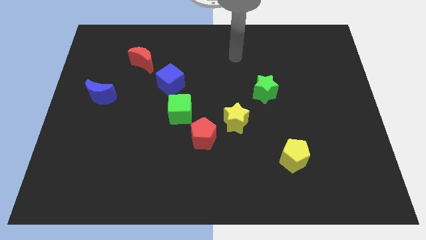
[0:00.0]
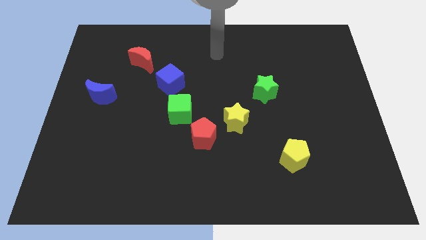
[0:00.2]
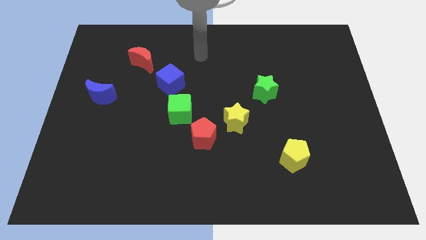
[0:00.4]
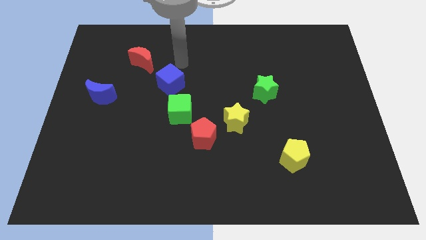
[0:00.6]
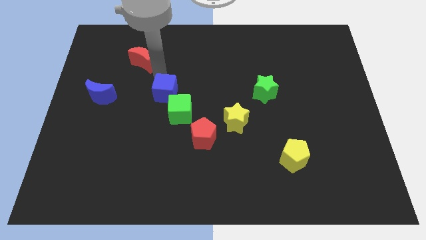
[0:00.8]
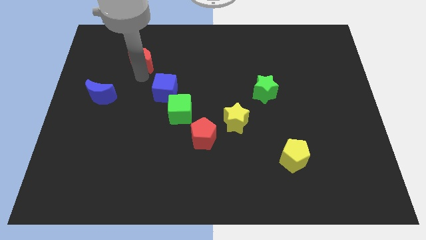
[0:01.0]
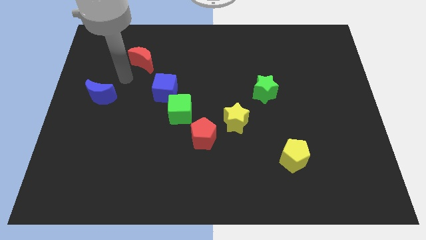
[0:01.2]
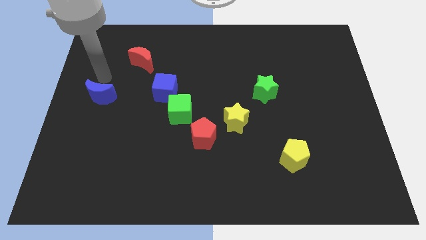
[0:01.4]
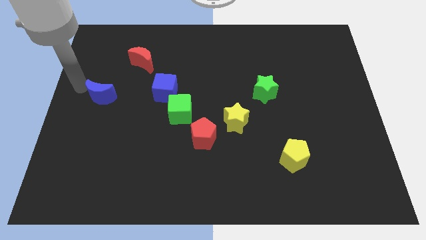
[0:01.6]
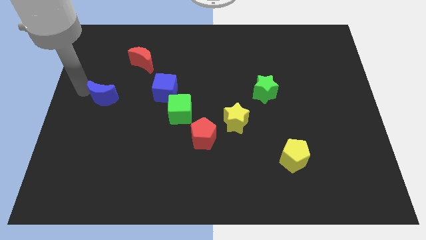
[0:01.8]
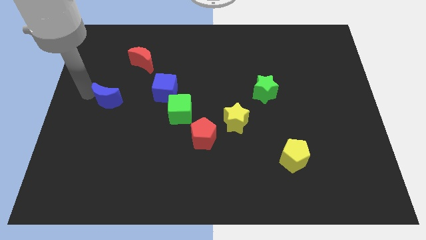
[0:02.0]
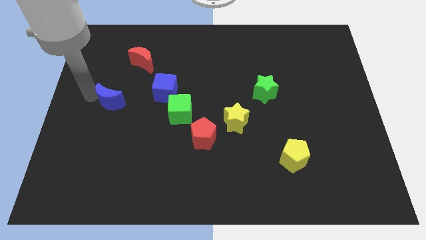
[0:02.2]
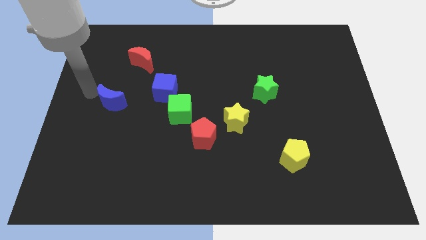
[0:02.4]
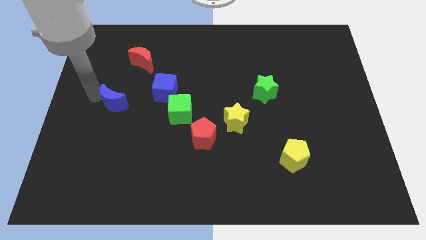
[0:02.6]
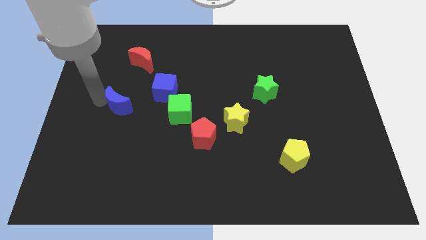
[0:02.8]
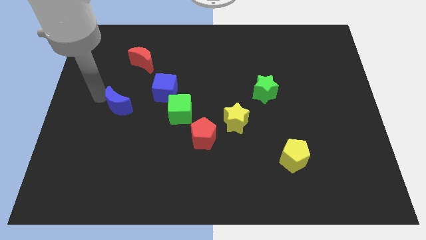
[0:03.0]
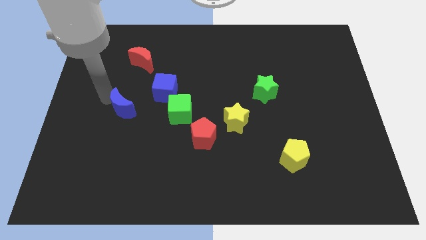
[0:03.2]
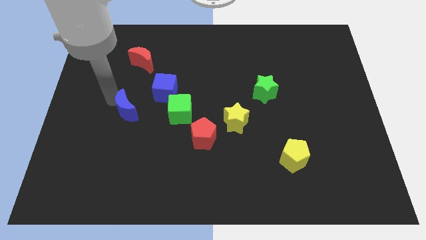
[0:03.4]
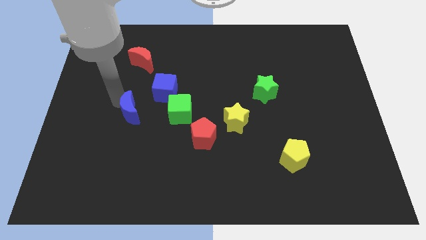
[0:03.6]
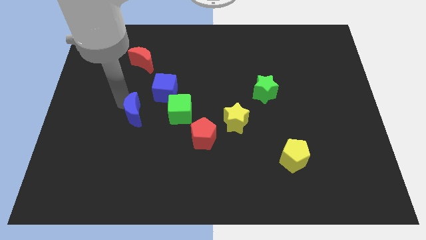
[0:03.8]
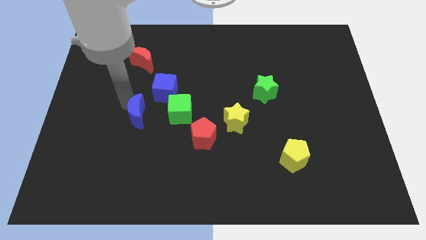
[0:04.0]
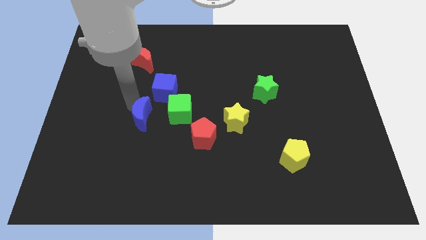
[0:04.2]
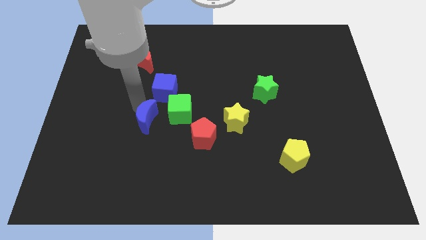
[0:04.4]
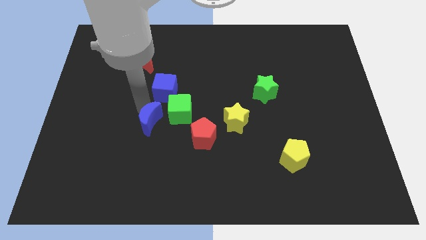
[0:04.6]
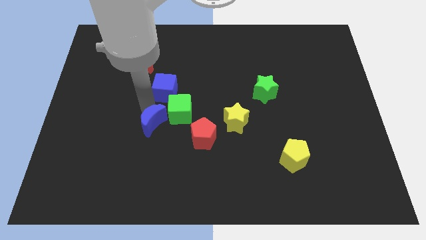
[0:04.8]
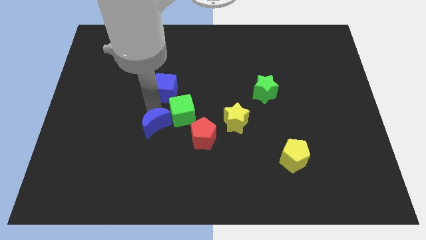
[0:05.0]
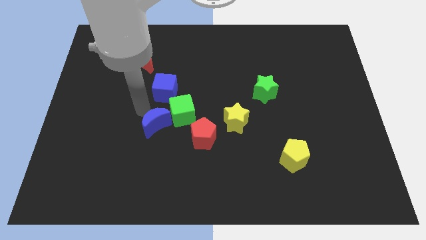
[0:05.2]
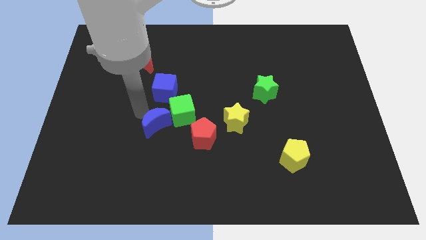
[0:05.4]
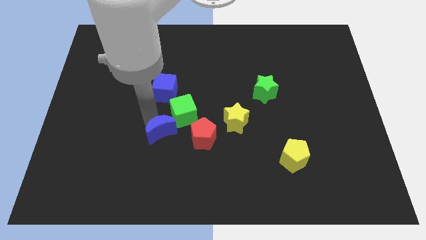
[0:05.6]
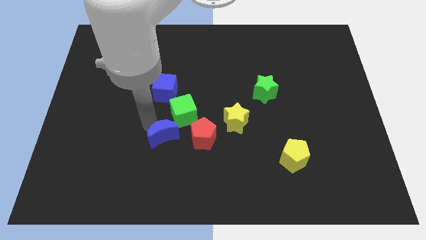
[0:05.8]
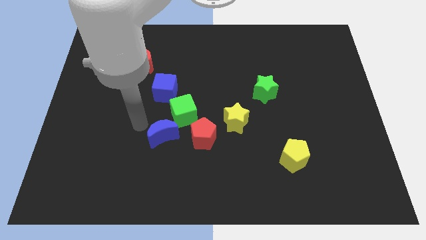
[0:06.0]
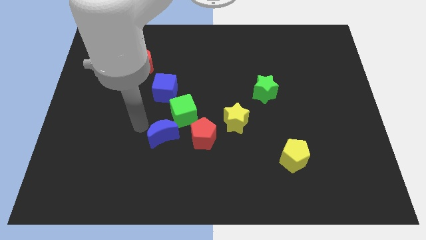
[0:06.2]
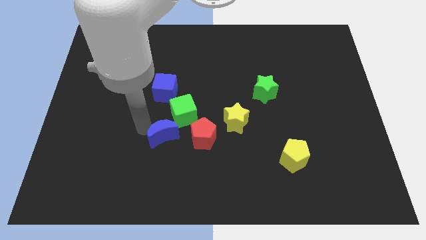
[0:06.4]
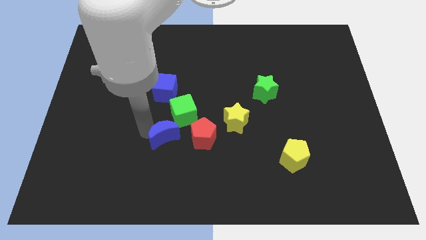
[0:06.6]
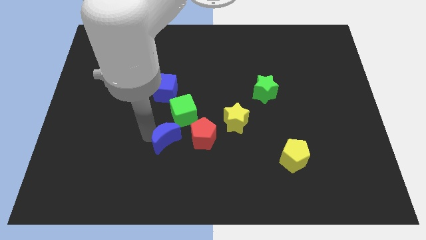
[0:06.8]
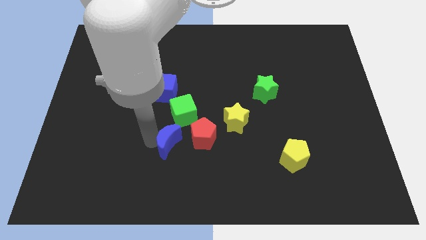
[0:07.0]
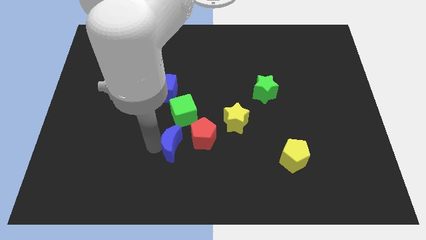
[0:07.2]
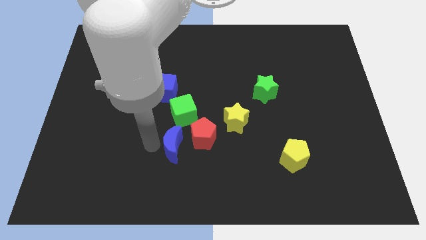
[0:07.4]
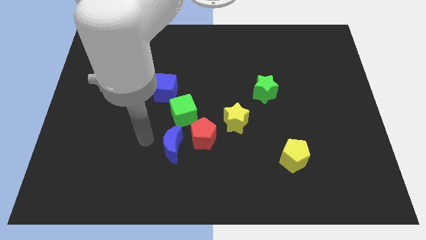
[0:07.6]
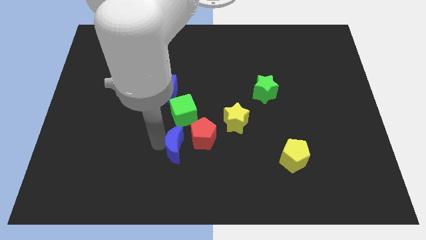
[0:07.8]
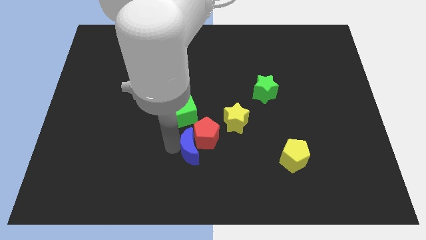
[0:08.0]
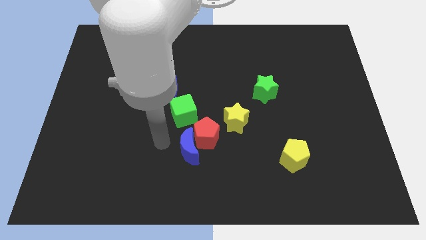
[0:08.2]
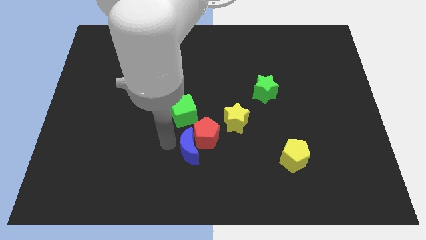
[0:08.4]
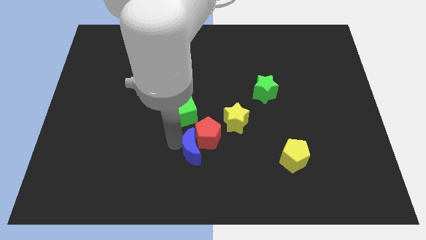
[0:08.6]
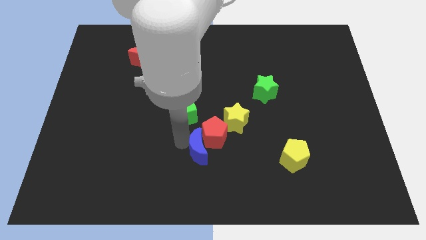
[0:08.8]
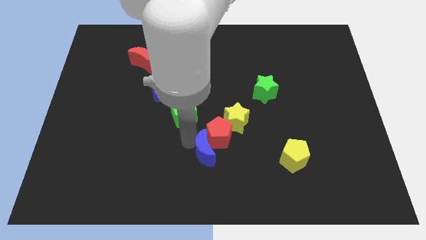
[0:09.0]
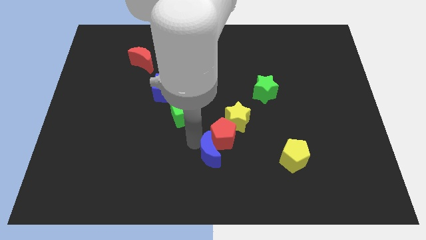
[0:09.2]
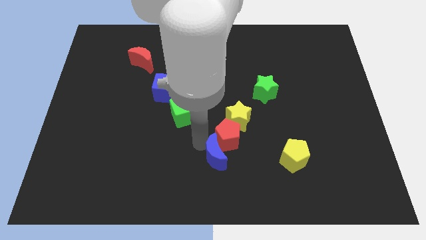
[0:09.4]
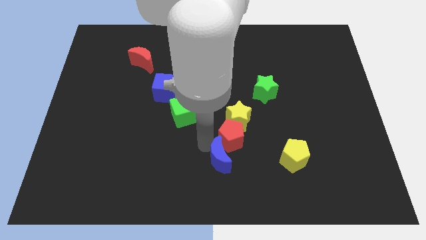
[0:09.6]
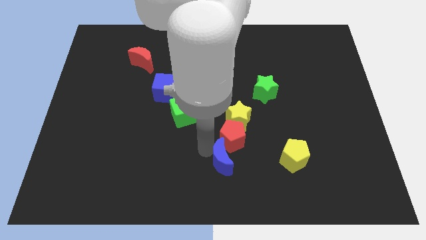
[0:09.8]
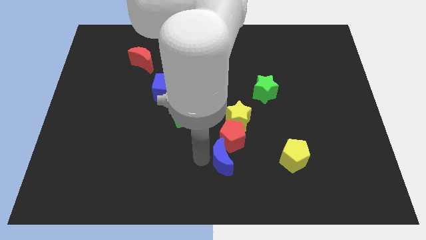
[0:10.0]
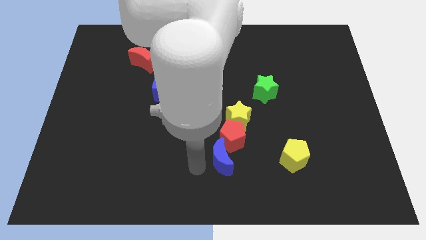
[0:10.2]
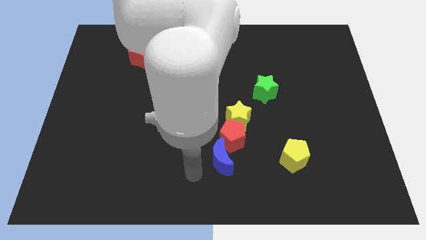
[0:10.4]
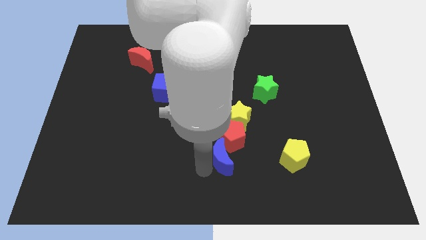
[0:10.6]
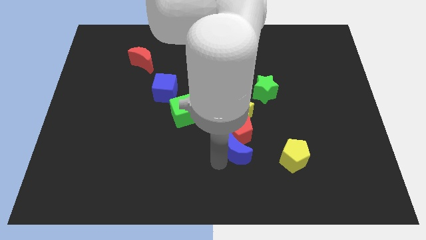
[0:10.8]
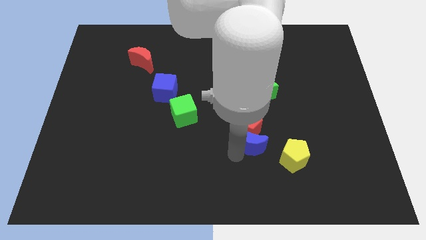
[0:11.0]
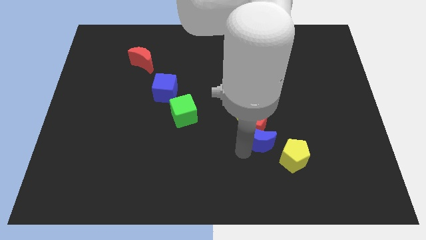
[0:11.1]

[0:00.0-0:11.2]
put the blue moon diagonally down and to the right of the yellow star

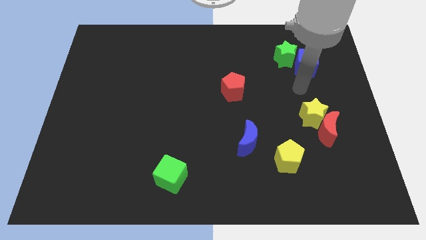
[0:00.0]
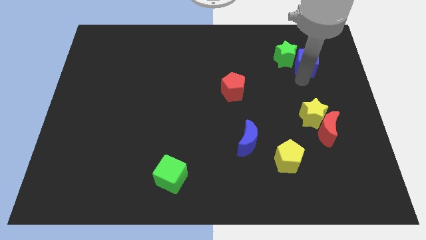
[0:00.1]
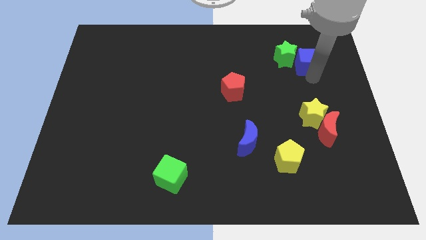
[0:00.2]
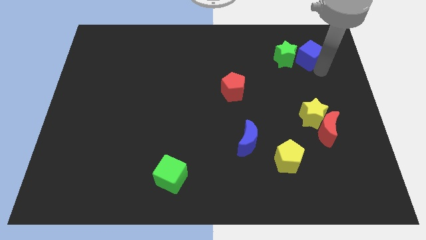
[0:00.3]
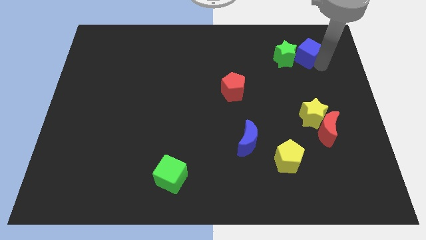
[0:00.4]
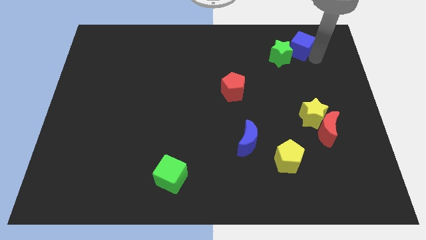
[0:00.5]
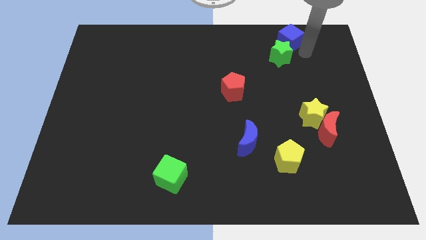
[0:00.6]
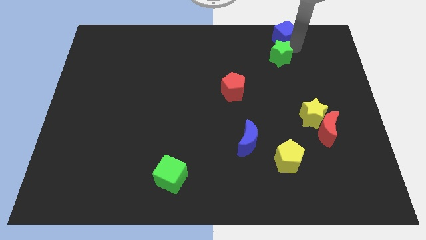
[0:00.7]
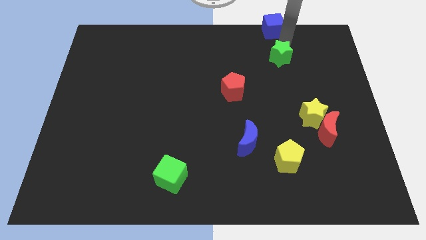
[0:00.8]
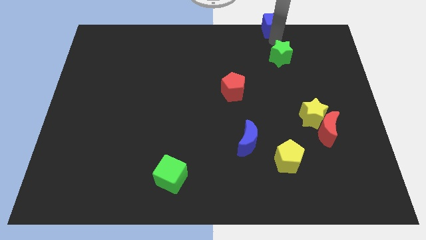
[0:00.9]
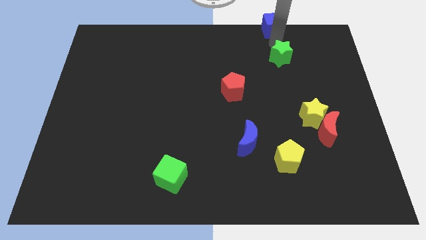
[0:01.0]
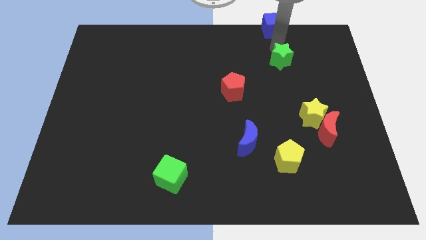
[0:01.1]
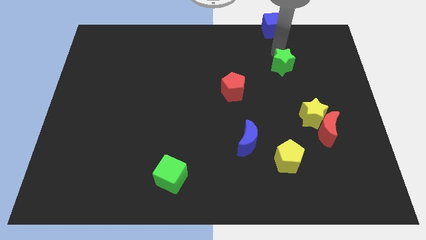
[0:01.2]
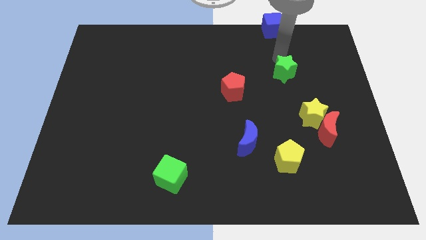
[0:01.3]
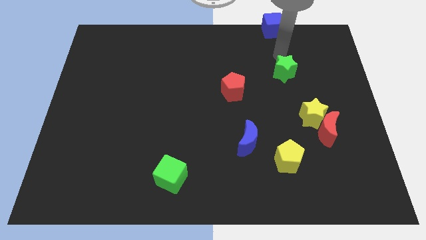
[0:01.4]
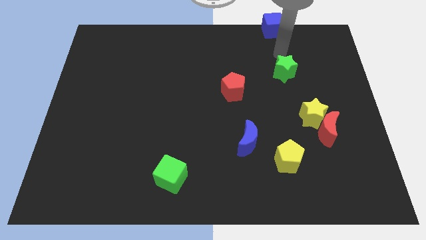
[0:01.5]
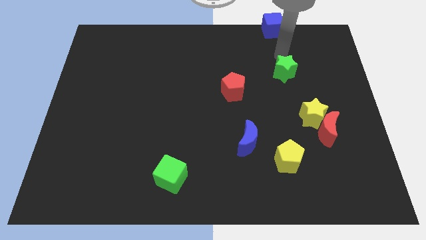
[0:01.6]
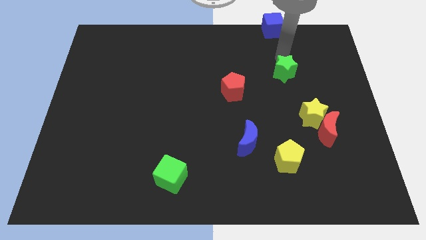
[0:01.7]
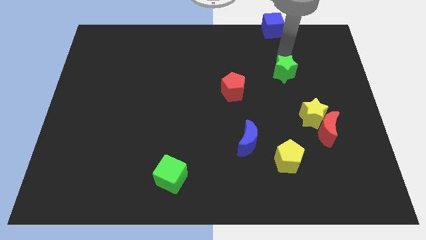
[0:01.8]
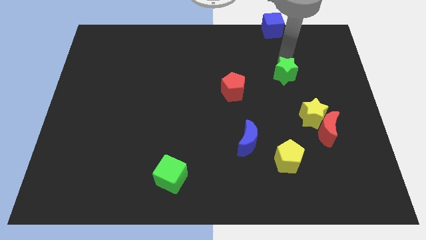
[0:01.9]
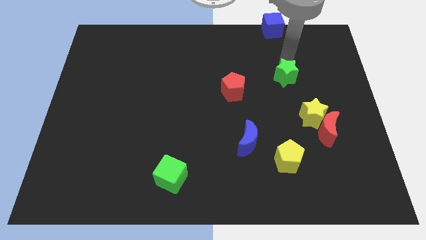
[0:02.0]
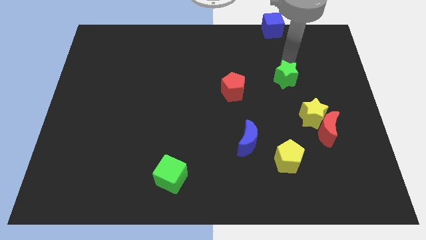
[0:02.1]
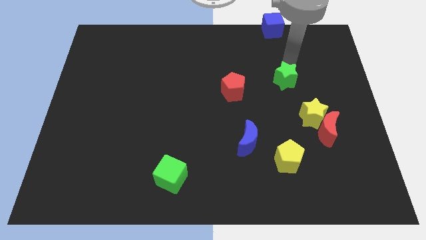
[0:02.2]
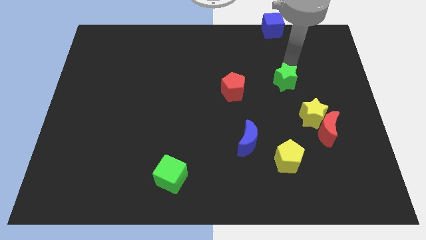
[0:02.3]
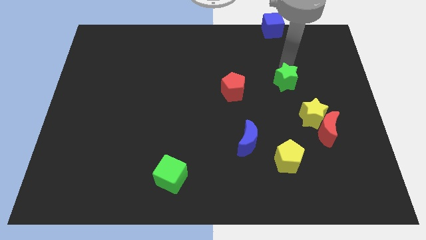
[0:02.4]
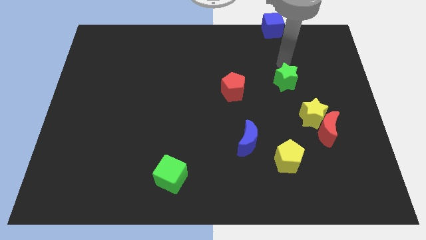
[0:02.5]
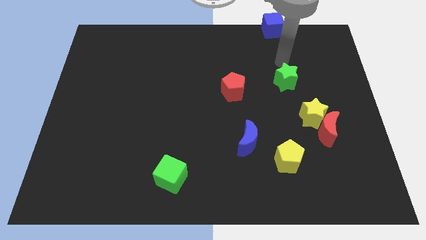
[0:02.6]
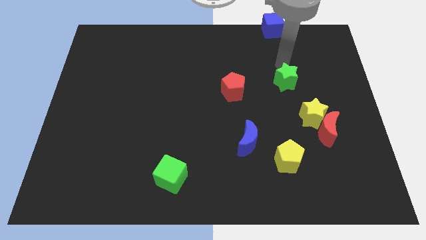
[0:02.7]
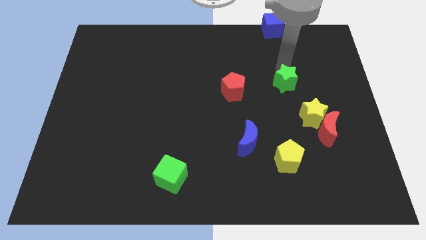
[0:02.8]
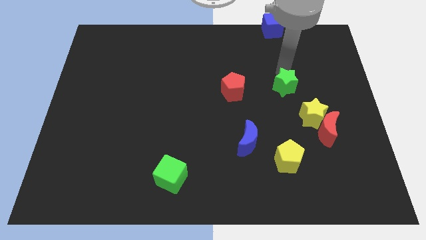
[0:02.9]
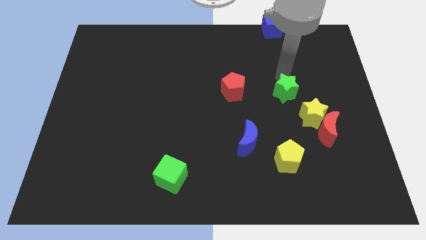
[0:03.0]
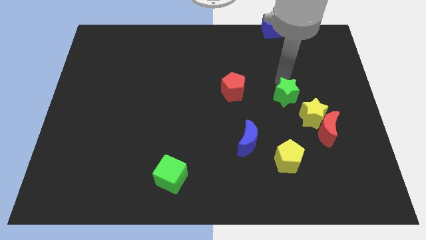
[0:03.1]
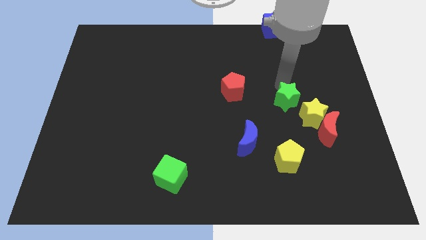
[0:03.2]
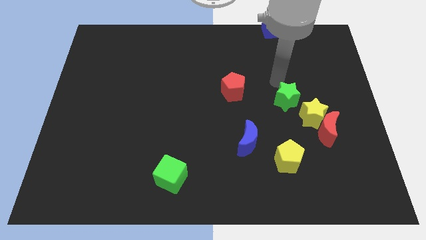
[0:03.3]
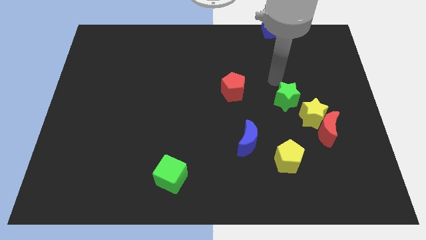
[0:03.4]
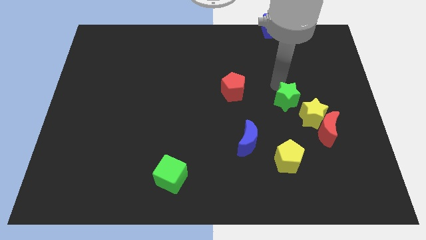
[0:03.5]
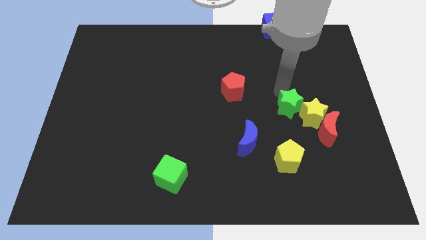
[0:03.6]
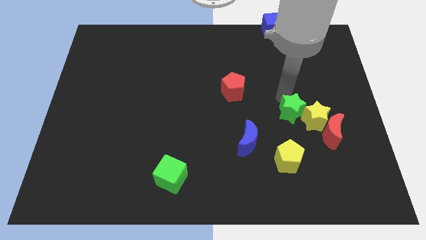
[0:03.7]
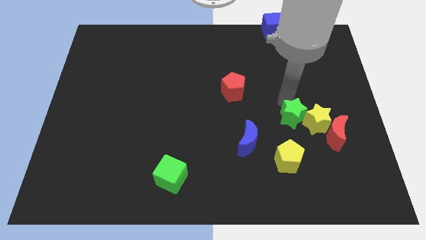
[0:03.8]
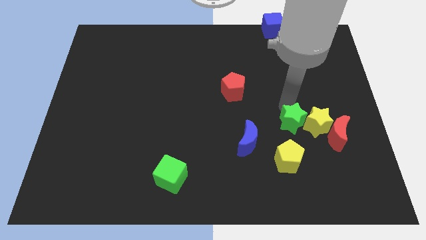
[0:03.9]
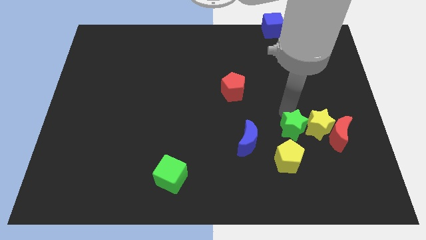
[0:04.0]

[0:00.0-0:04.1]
slide the green star to the top right of the yellow pentagon
